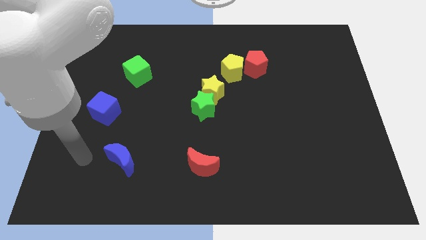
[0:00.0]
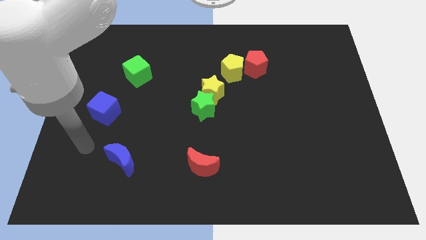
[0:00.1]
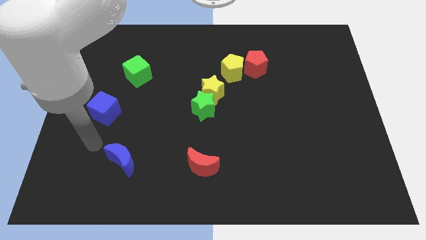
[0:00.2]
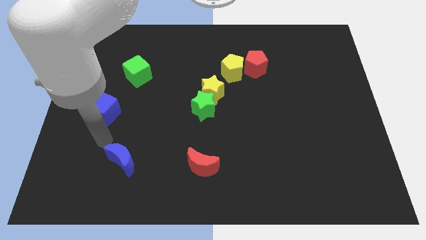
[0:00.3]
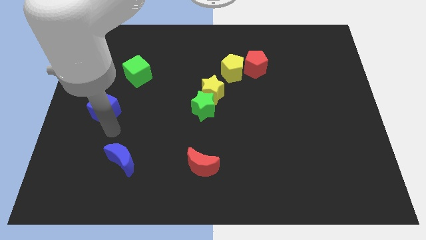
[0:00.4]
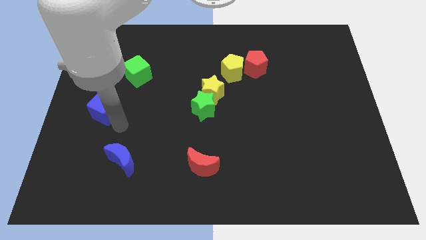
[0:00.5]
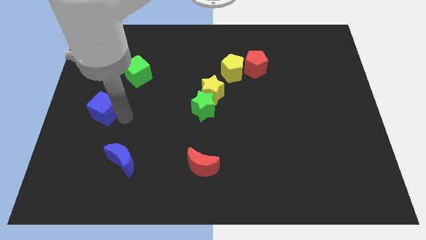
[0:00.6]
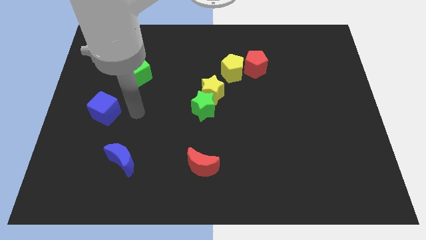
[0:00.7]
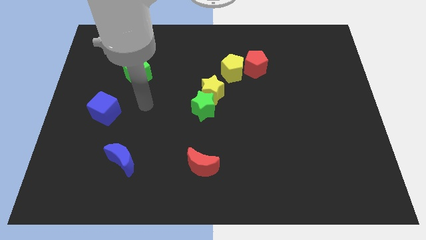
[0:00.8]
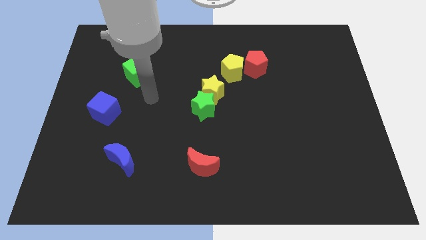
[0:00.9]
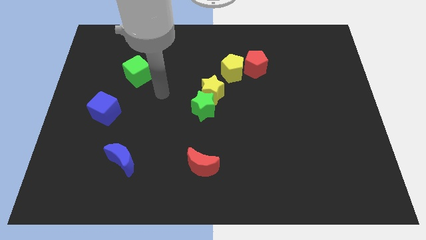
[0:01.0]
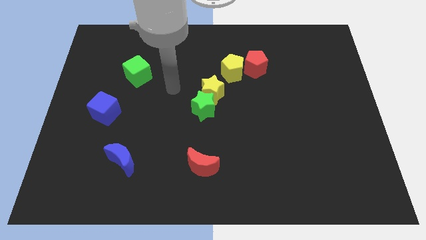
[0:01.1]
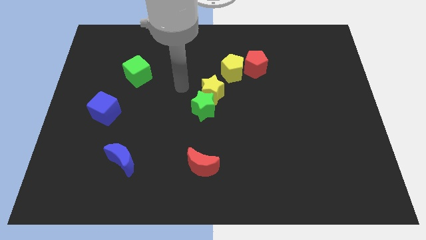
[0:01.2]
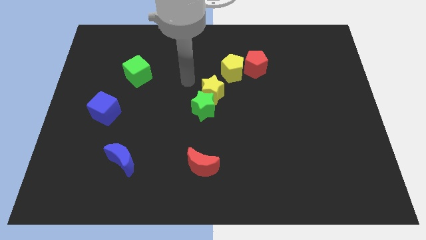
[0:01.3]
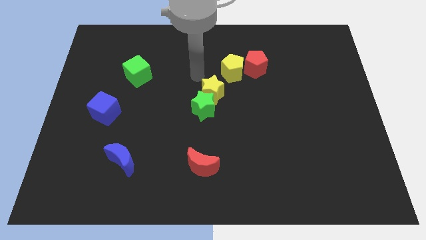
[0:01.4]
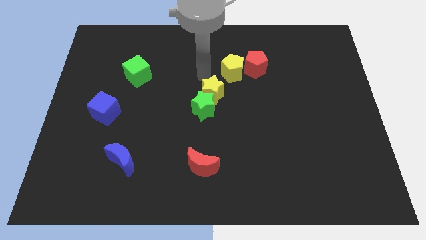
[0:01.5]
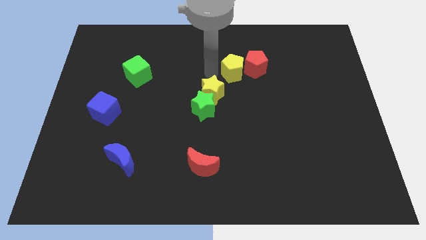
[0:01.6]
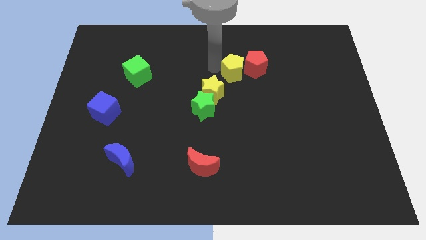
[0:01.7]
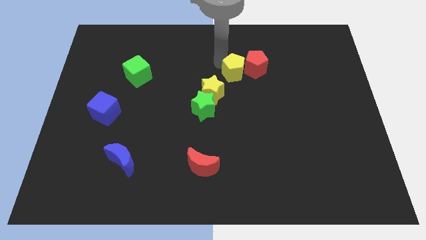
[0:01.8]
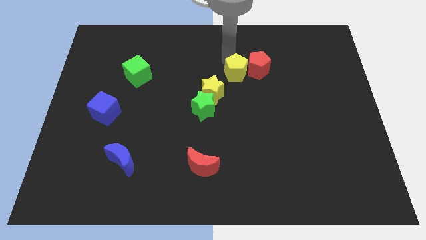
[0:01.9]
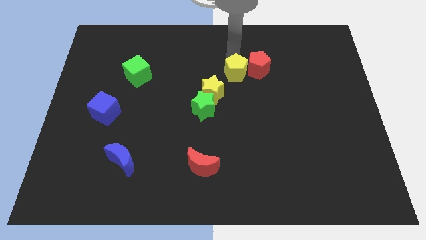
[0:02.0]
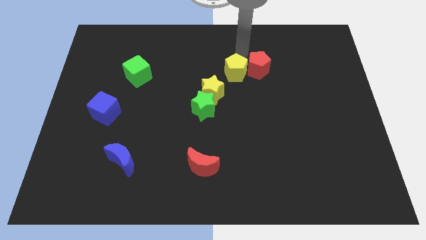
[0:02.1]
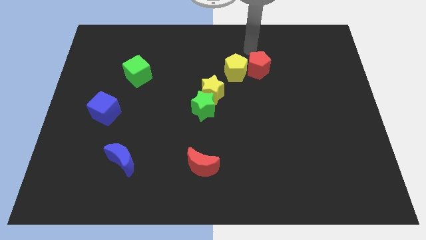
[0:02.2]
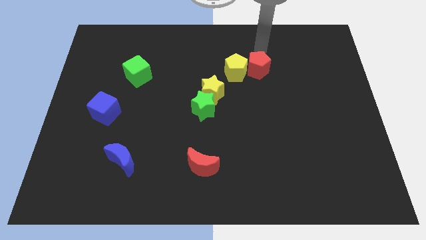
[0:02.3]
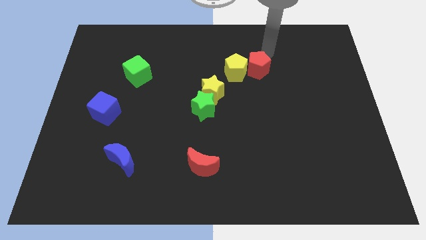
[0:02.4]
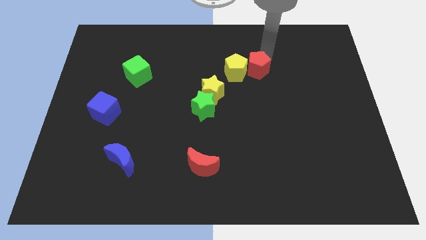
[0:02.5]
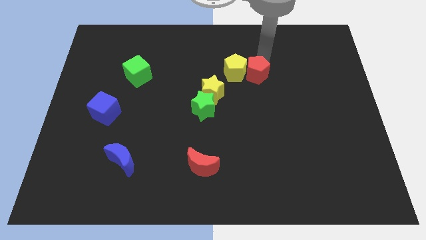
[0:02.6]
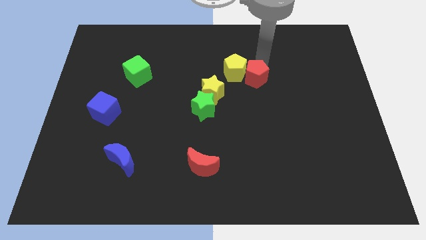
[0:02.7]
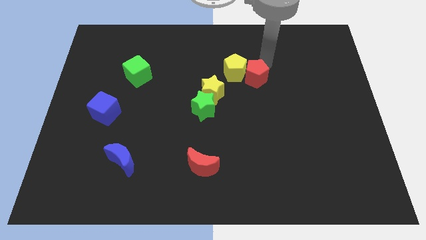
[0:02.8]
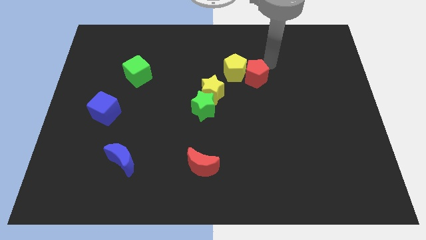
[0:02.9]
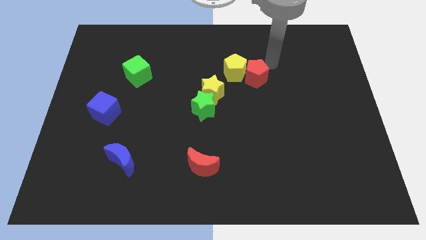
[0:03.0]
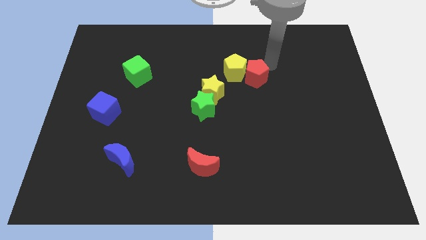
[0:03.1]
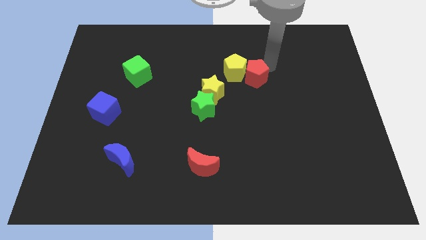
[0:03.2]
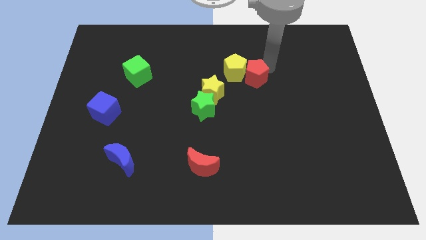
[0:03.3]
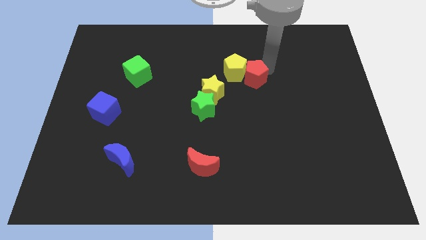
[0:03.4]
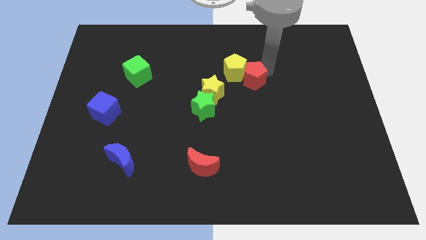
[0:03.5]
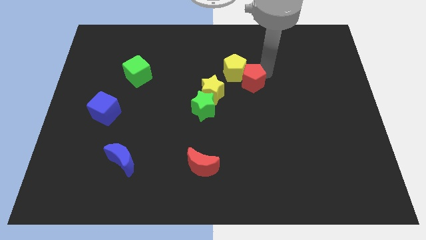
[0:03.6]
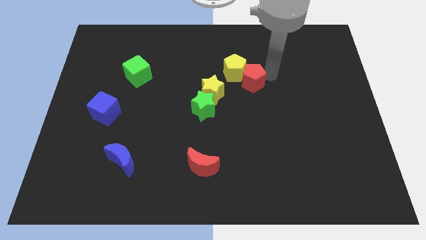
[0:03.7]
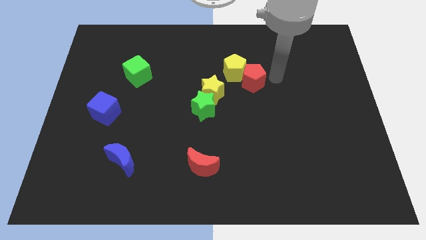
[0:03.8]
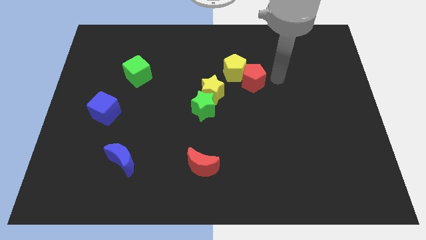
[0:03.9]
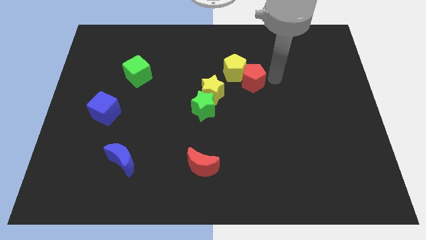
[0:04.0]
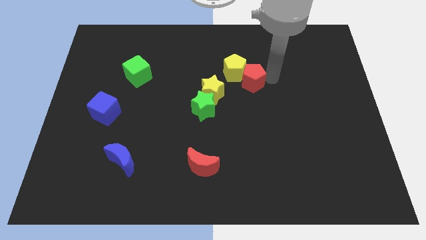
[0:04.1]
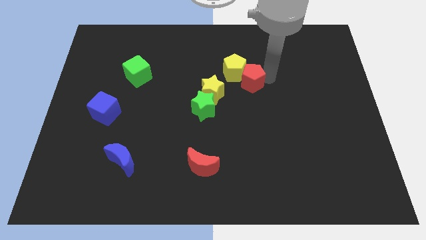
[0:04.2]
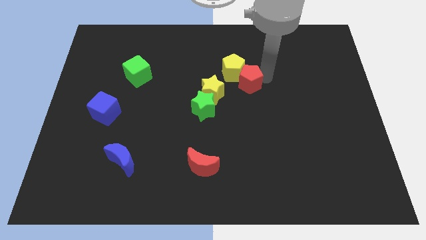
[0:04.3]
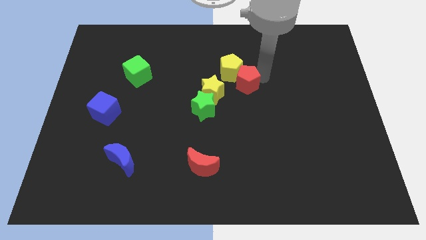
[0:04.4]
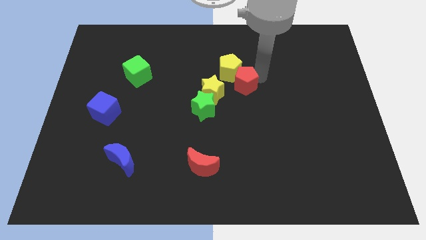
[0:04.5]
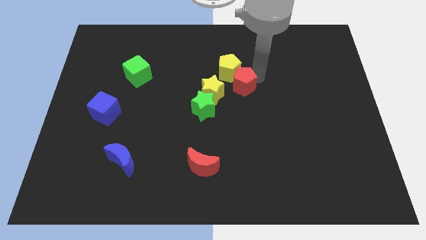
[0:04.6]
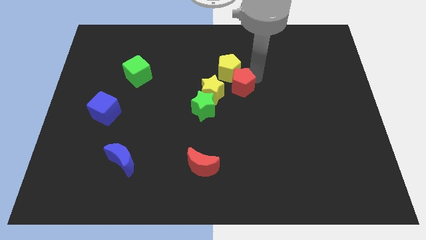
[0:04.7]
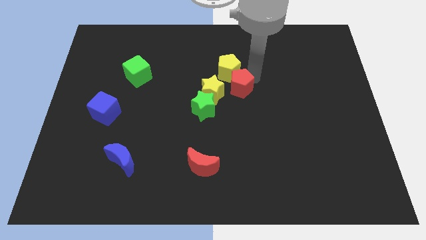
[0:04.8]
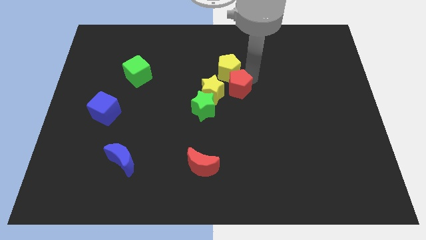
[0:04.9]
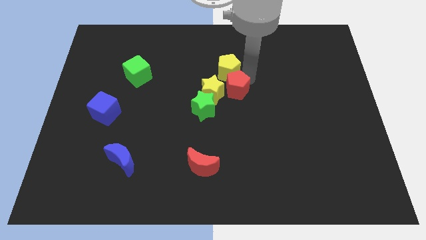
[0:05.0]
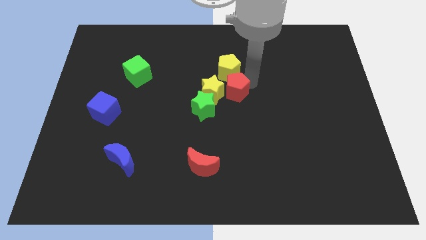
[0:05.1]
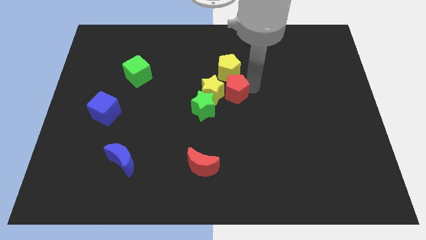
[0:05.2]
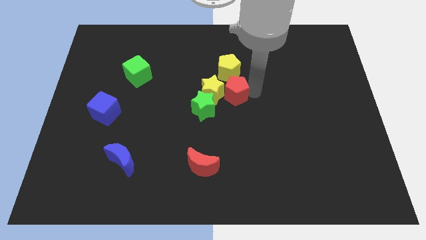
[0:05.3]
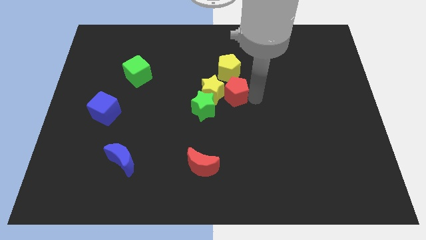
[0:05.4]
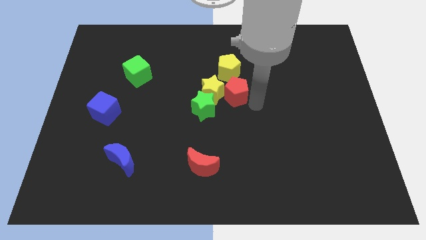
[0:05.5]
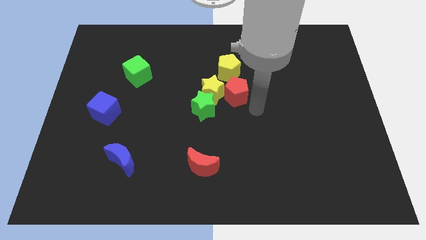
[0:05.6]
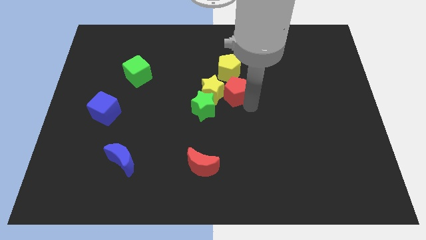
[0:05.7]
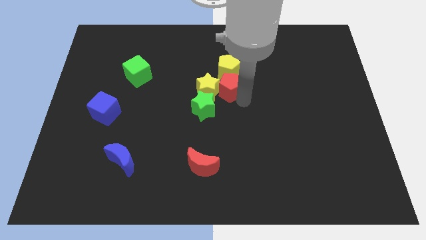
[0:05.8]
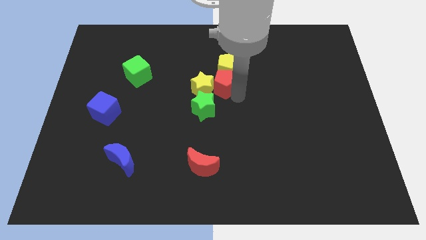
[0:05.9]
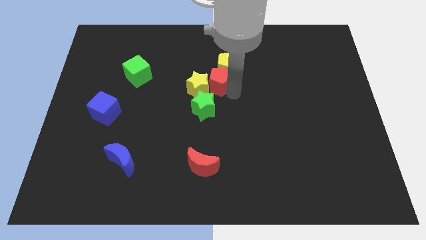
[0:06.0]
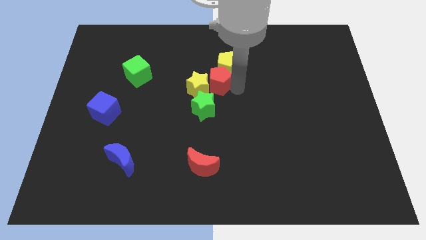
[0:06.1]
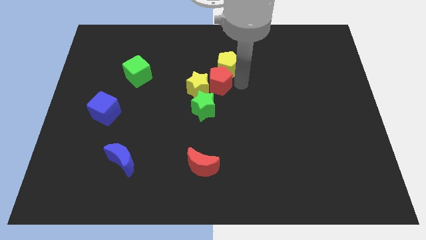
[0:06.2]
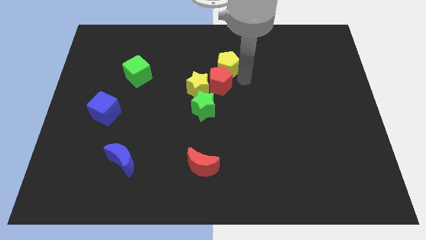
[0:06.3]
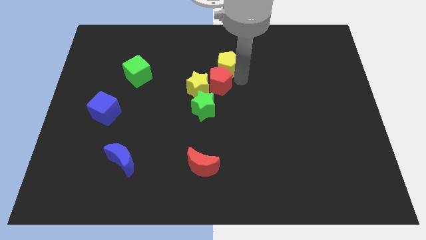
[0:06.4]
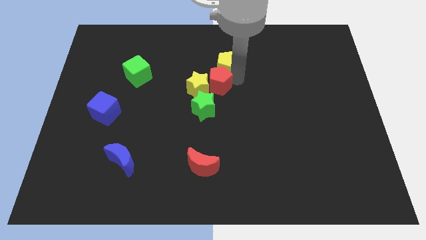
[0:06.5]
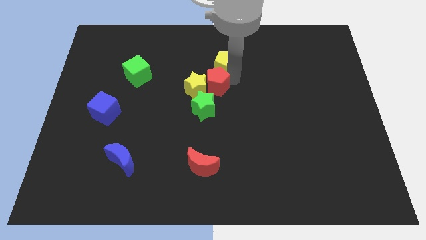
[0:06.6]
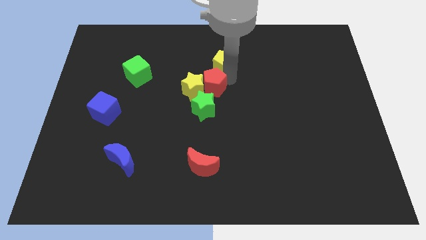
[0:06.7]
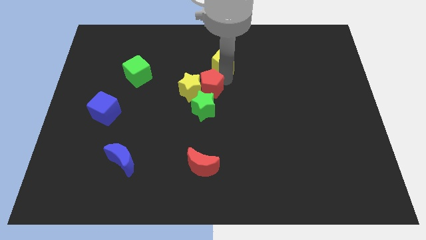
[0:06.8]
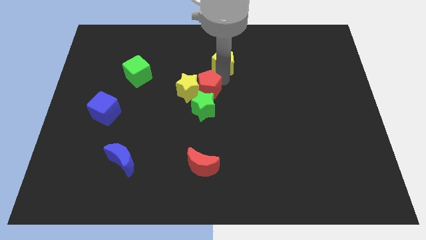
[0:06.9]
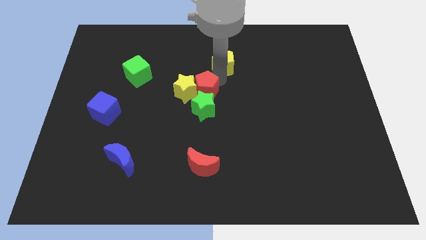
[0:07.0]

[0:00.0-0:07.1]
move the red pentagon to the top left of the green star

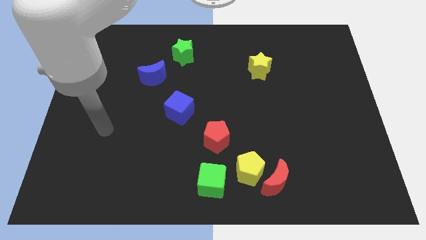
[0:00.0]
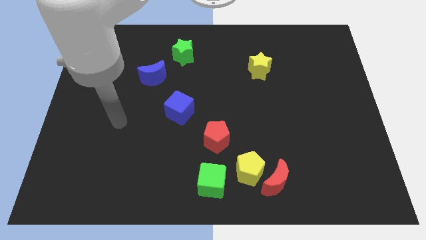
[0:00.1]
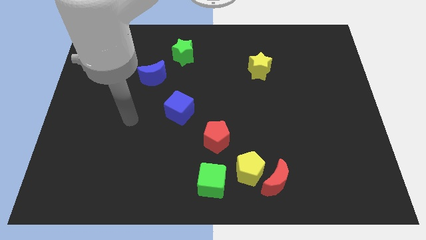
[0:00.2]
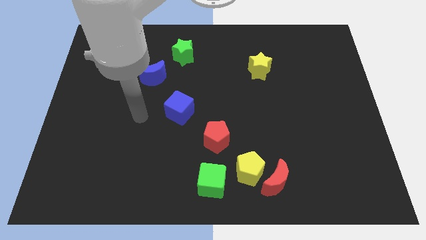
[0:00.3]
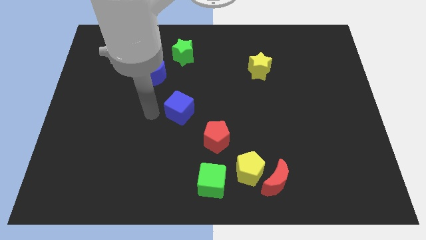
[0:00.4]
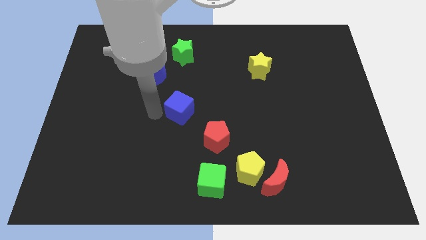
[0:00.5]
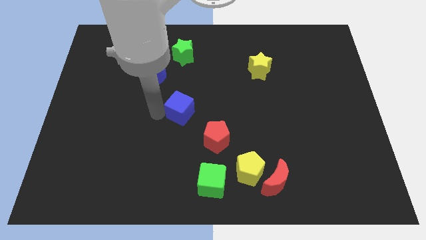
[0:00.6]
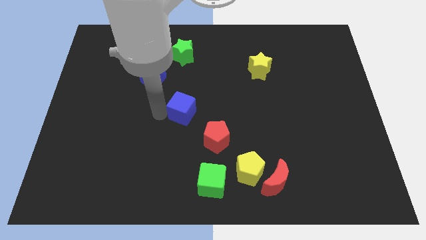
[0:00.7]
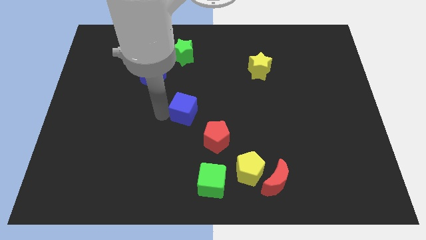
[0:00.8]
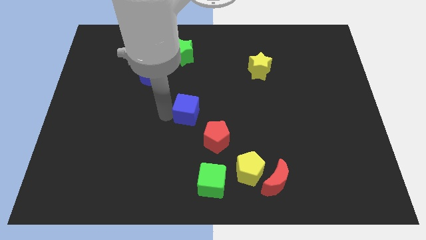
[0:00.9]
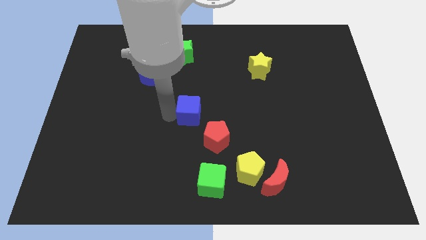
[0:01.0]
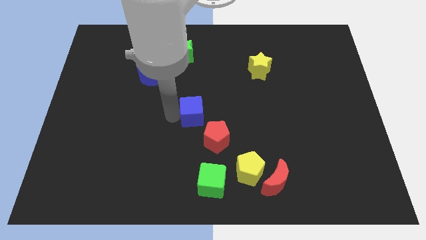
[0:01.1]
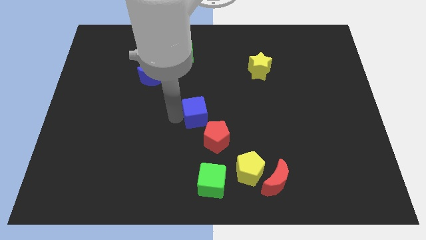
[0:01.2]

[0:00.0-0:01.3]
move the blue cube above the red pentagon
